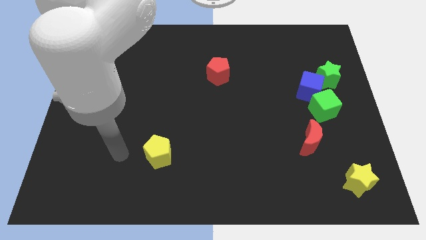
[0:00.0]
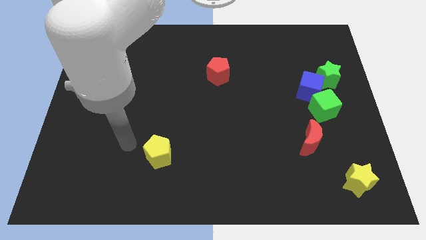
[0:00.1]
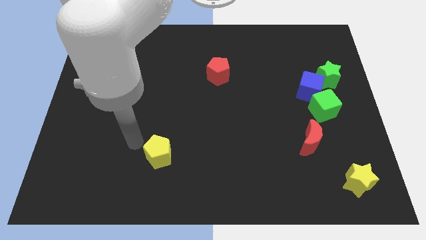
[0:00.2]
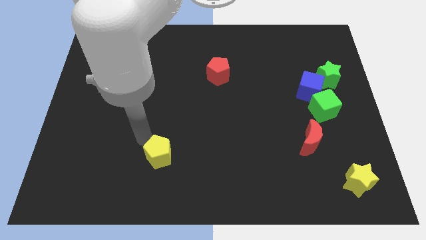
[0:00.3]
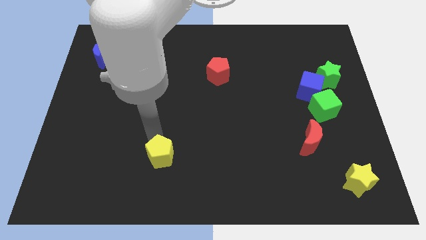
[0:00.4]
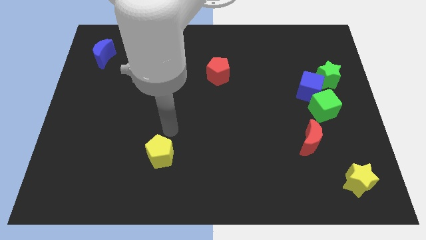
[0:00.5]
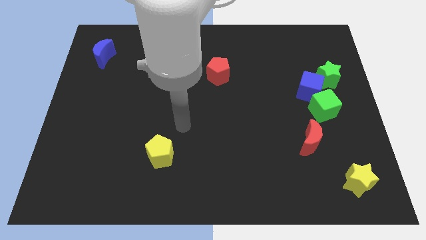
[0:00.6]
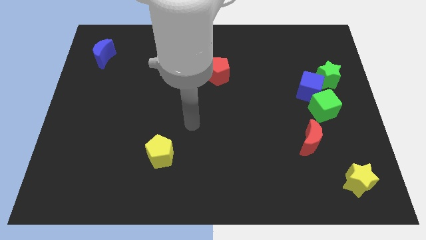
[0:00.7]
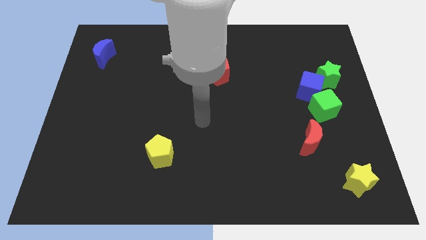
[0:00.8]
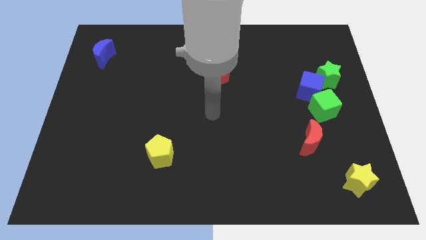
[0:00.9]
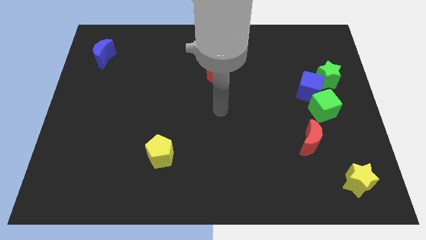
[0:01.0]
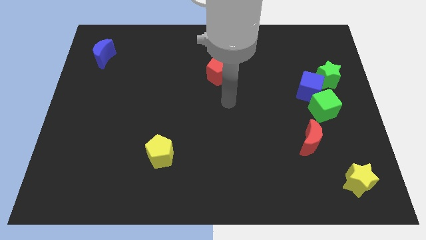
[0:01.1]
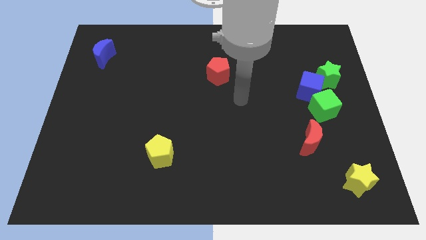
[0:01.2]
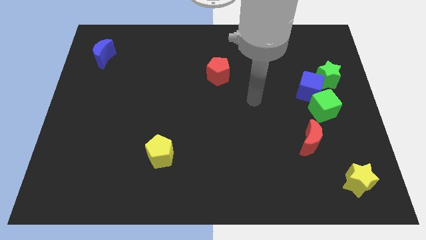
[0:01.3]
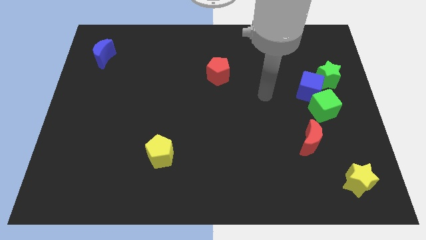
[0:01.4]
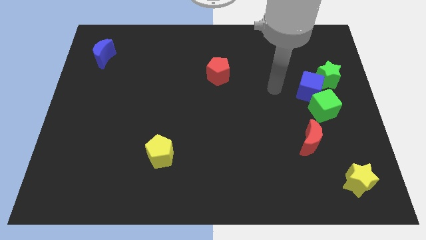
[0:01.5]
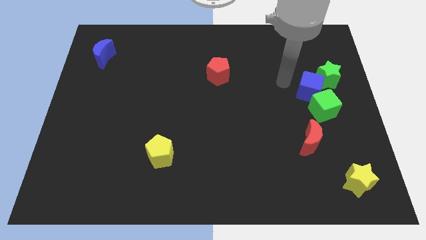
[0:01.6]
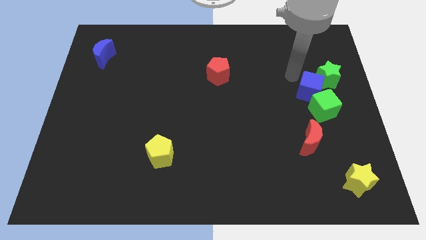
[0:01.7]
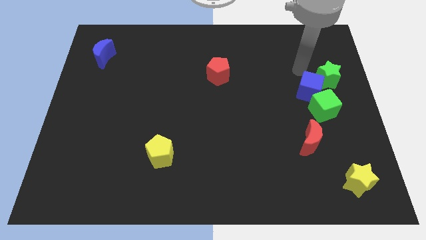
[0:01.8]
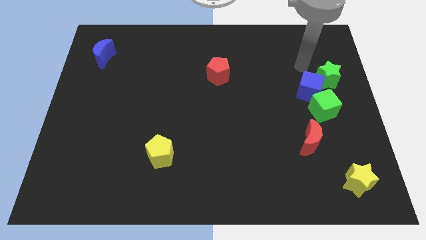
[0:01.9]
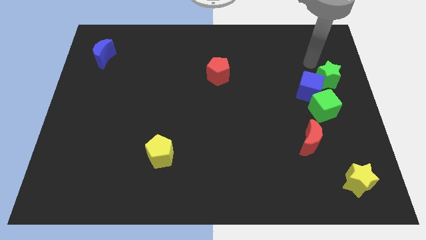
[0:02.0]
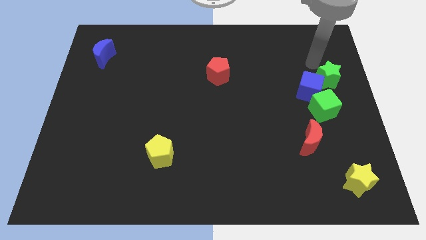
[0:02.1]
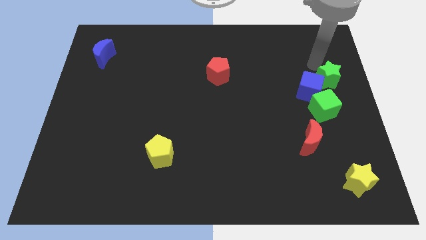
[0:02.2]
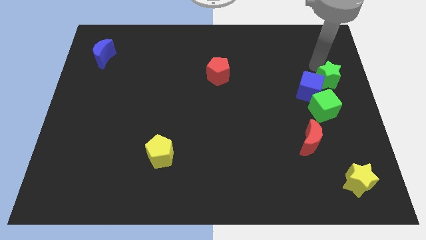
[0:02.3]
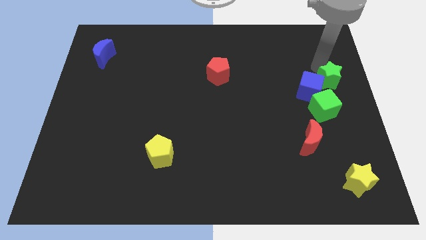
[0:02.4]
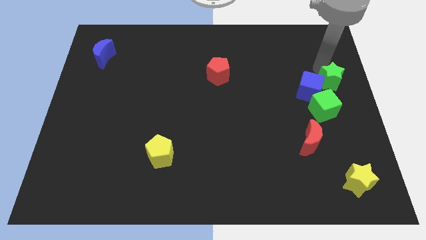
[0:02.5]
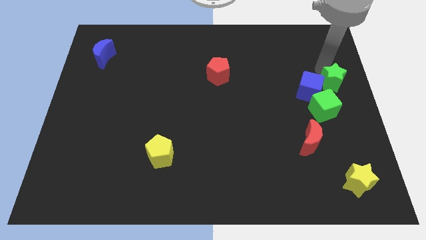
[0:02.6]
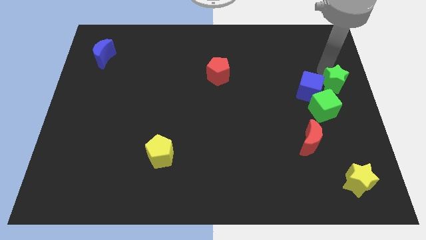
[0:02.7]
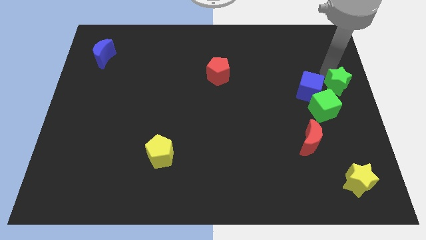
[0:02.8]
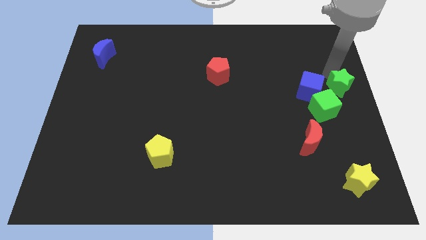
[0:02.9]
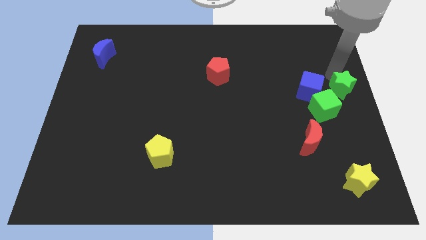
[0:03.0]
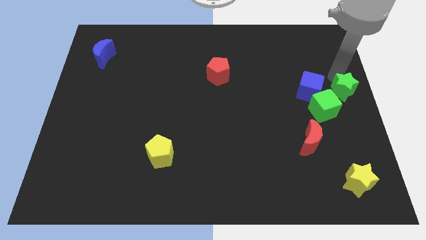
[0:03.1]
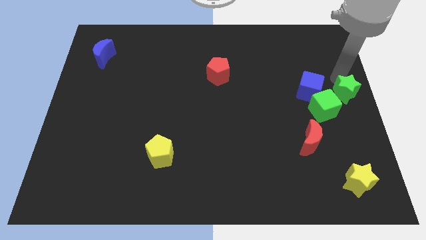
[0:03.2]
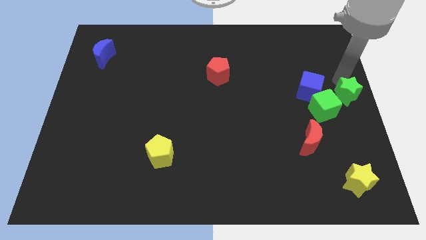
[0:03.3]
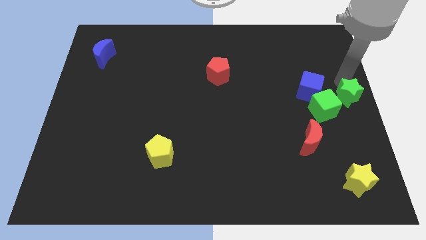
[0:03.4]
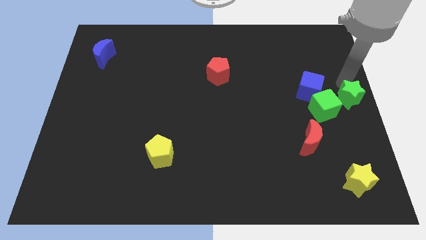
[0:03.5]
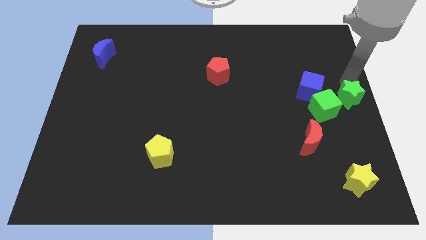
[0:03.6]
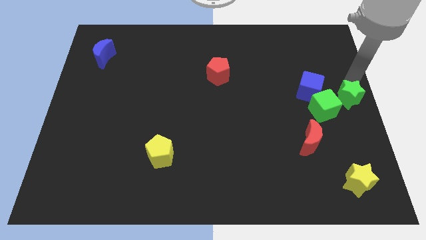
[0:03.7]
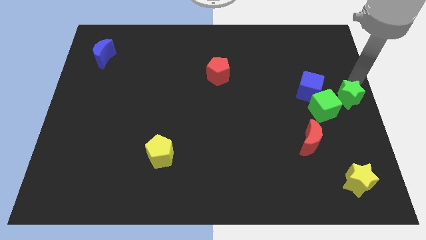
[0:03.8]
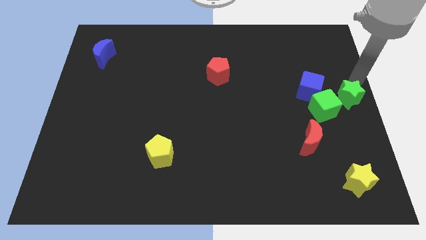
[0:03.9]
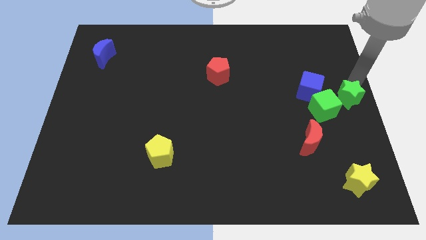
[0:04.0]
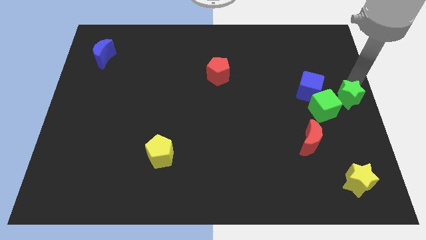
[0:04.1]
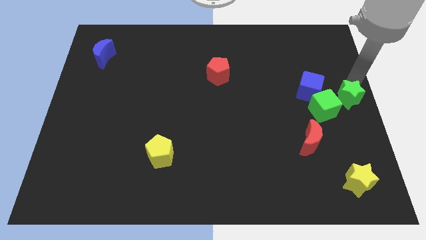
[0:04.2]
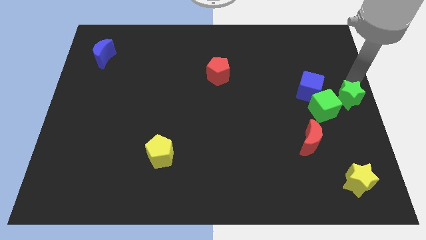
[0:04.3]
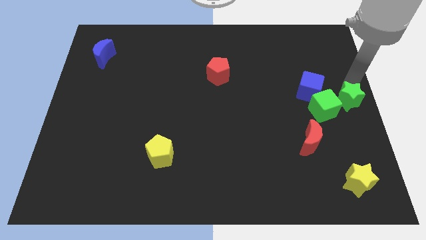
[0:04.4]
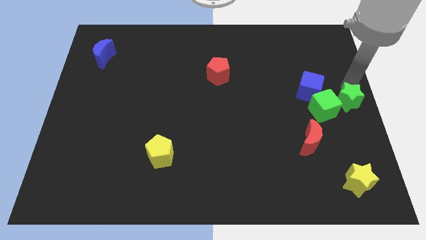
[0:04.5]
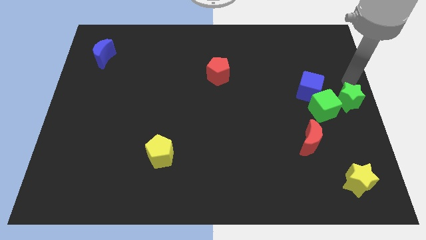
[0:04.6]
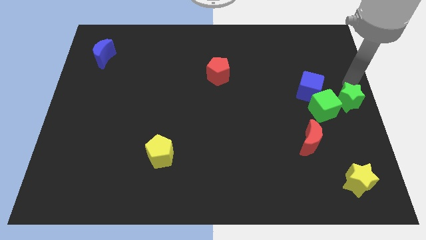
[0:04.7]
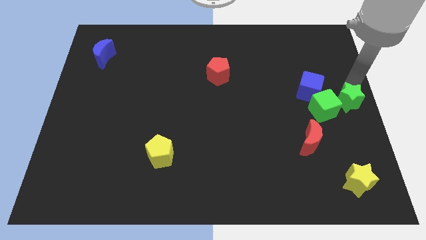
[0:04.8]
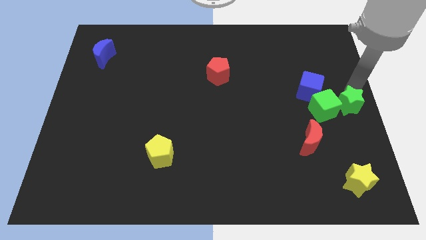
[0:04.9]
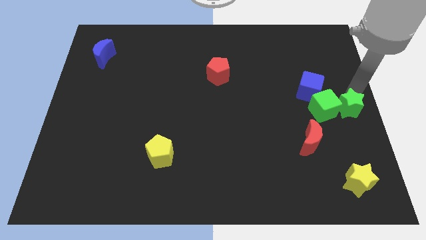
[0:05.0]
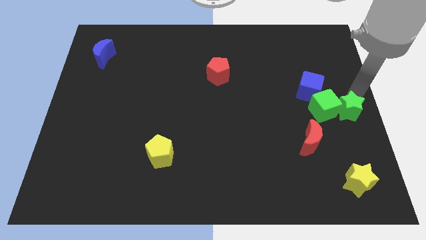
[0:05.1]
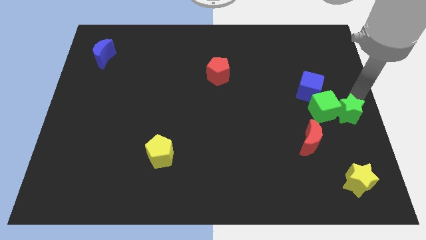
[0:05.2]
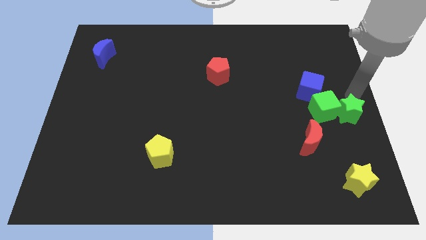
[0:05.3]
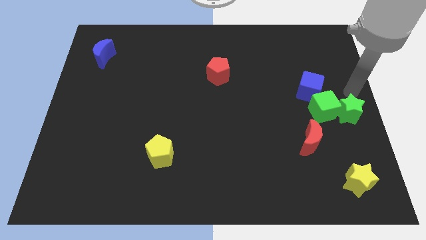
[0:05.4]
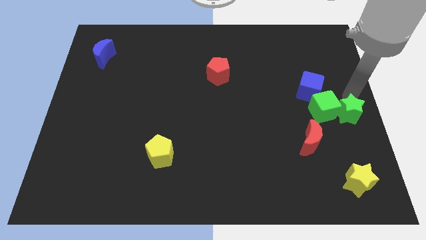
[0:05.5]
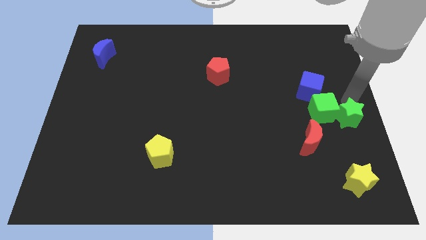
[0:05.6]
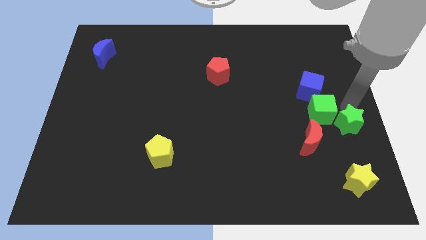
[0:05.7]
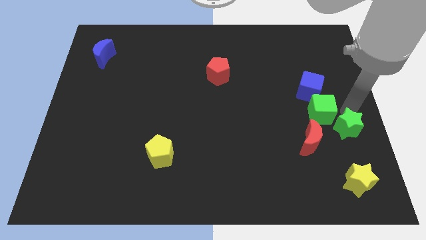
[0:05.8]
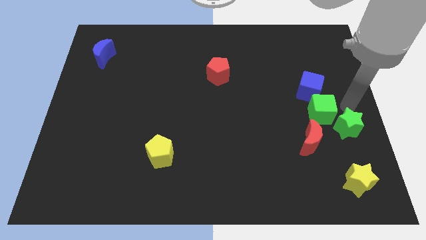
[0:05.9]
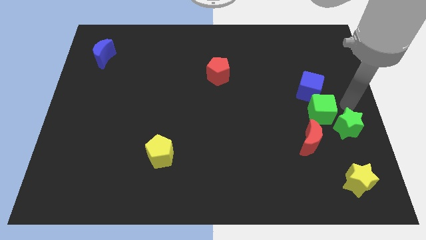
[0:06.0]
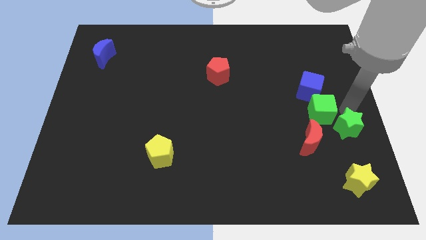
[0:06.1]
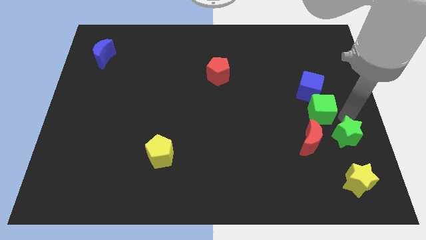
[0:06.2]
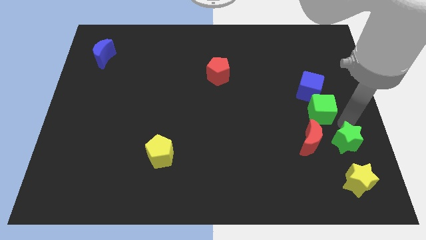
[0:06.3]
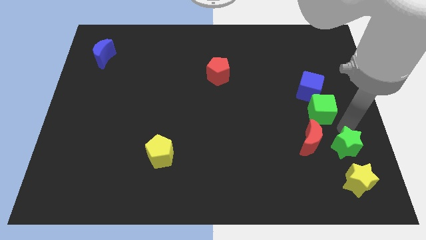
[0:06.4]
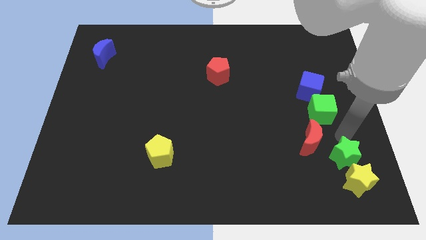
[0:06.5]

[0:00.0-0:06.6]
put the green star to the yellow star

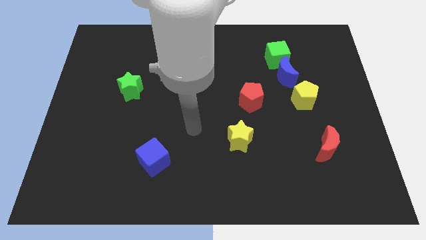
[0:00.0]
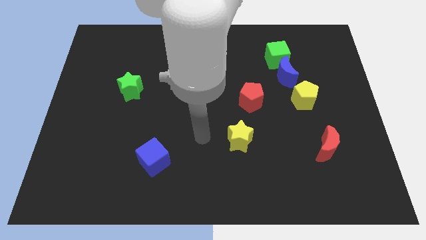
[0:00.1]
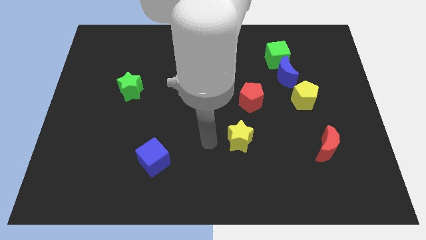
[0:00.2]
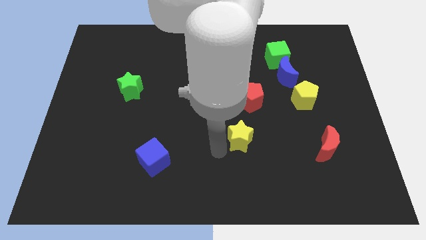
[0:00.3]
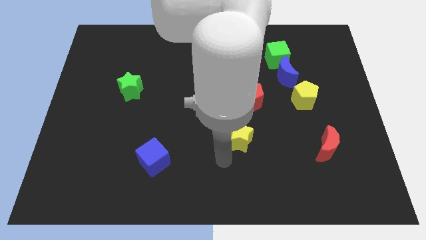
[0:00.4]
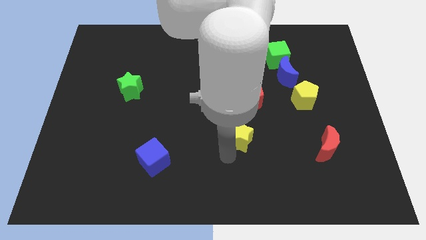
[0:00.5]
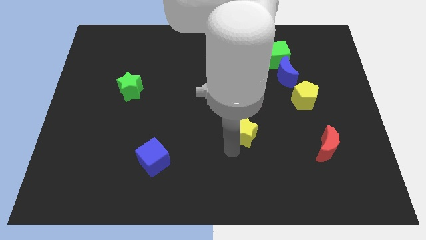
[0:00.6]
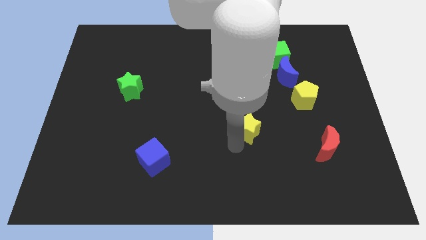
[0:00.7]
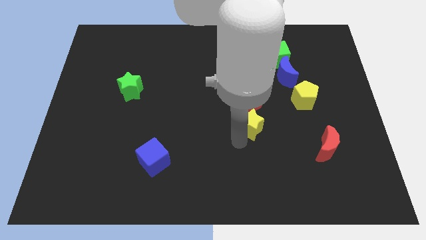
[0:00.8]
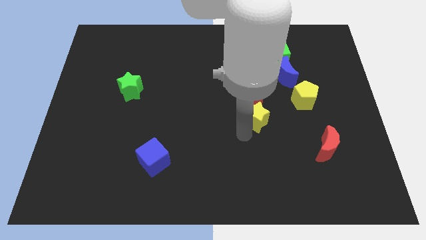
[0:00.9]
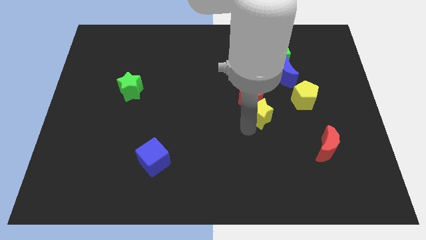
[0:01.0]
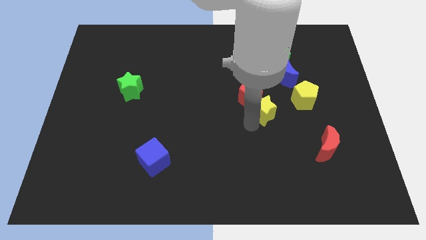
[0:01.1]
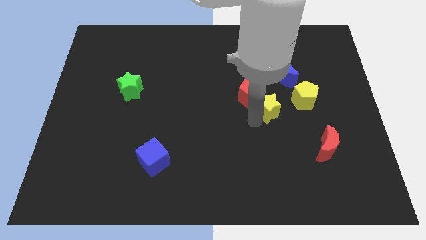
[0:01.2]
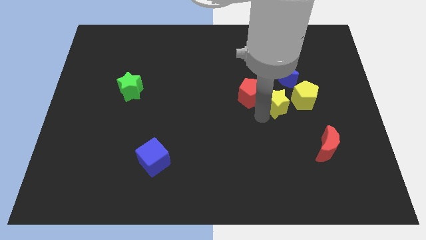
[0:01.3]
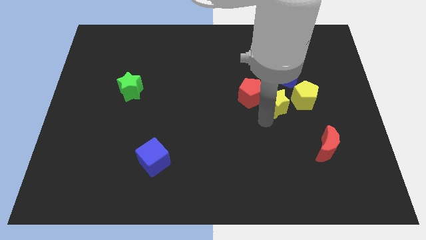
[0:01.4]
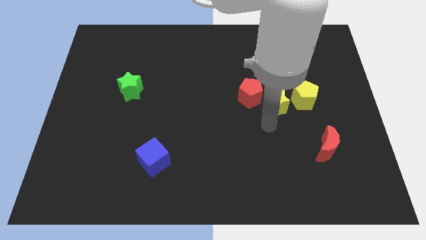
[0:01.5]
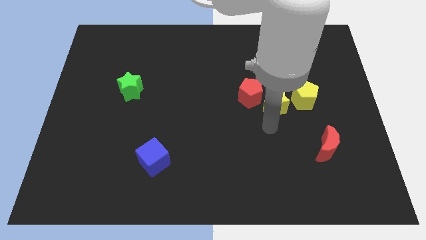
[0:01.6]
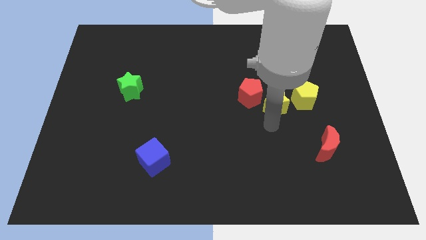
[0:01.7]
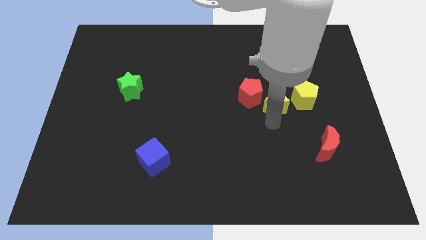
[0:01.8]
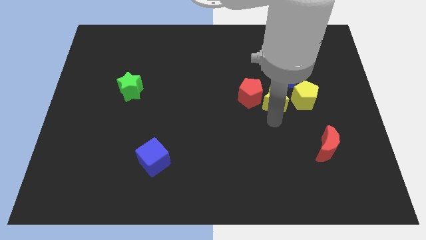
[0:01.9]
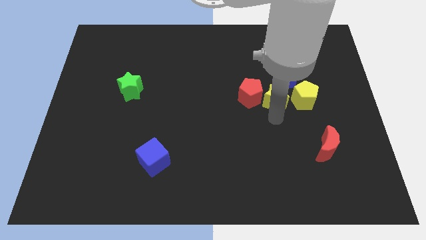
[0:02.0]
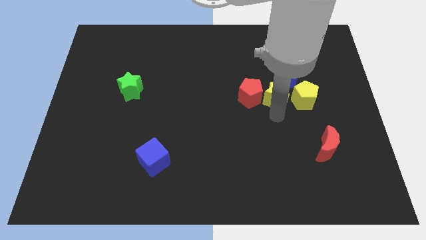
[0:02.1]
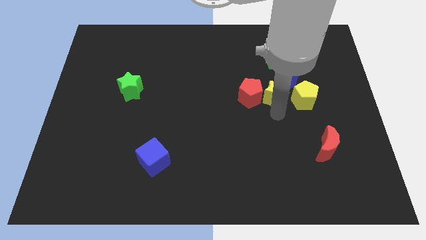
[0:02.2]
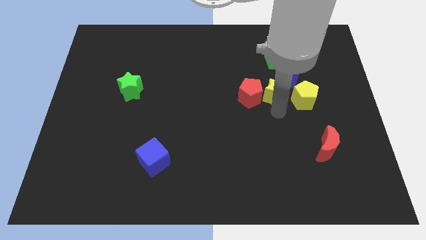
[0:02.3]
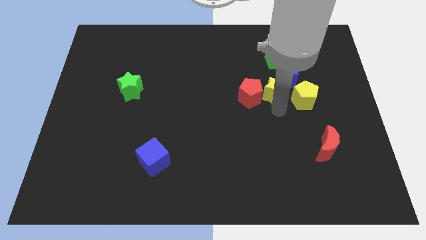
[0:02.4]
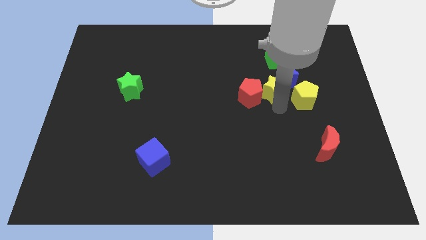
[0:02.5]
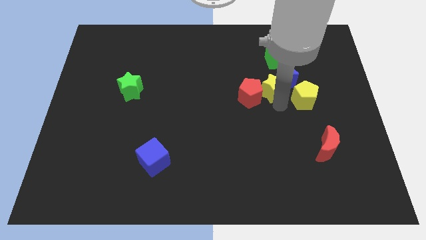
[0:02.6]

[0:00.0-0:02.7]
push the yellow star towards the blue moon
